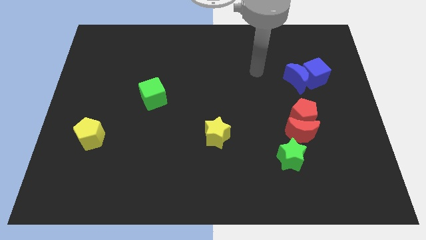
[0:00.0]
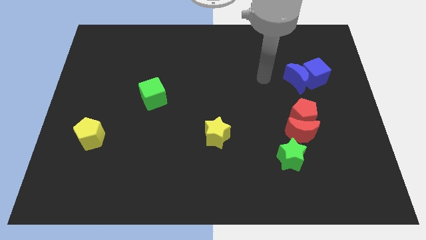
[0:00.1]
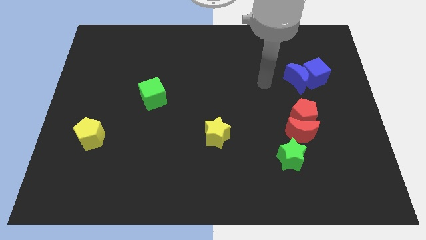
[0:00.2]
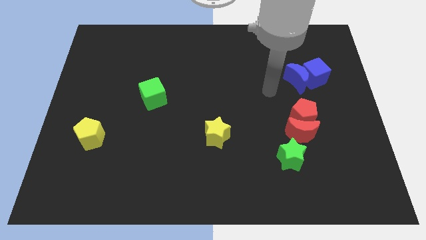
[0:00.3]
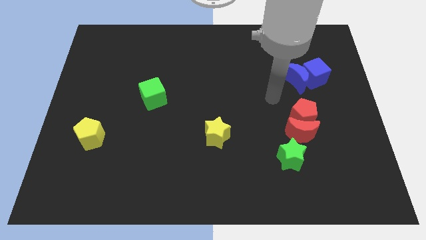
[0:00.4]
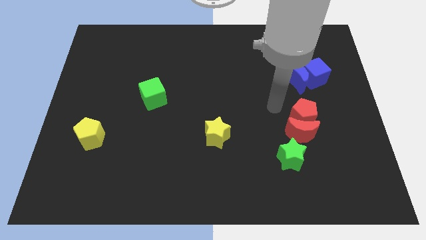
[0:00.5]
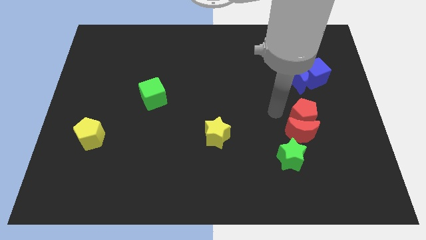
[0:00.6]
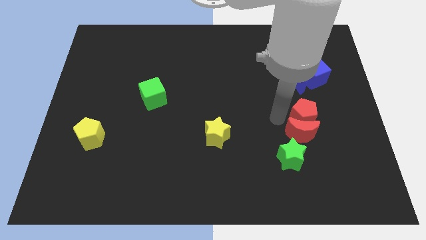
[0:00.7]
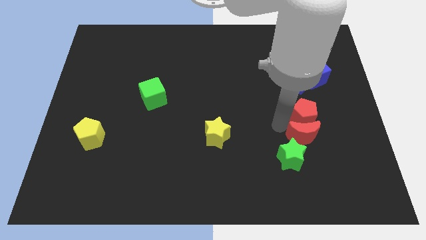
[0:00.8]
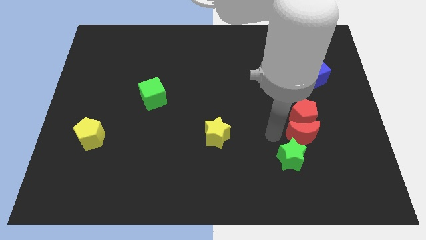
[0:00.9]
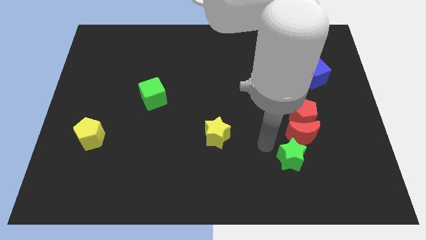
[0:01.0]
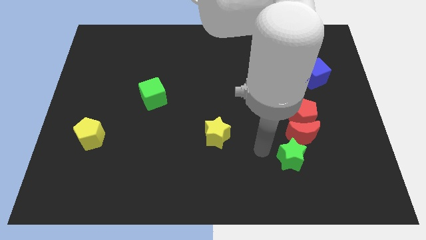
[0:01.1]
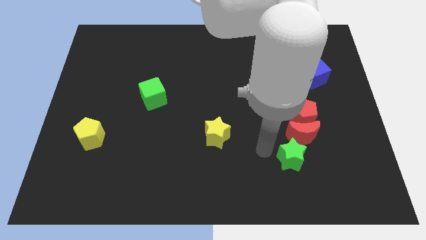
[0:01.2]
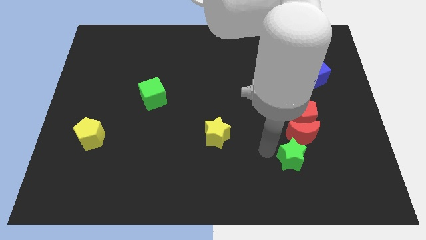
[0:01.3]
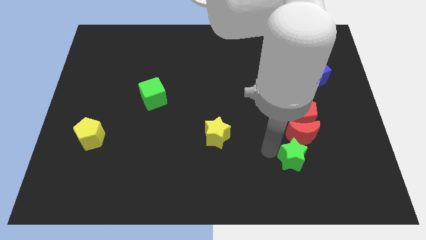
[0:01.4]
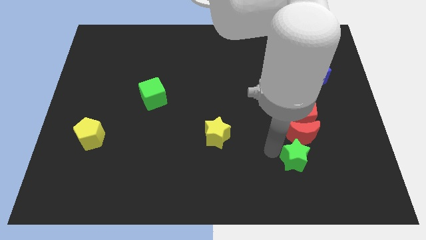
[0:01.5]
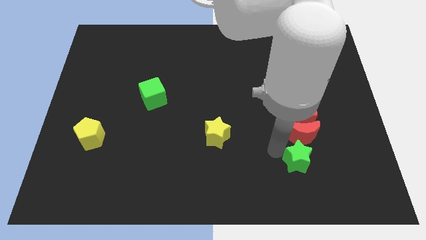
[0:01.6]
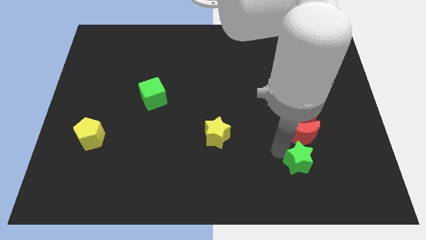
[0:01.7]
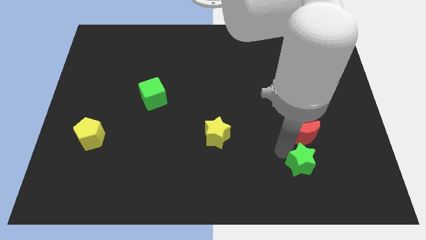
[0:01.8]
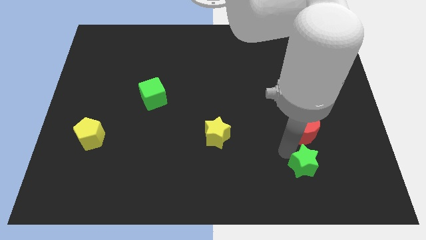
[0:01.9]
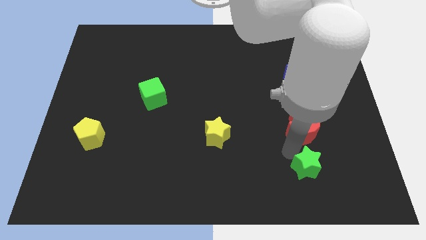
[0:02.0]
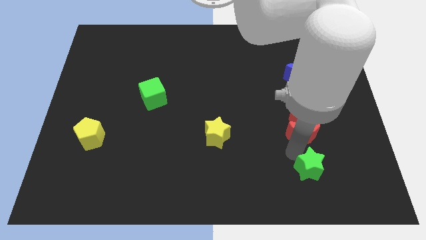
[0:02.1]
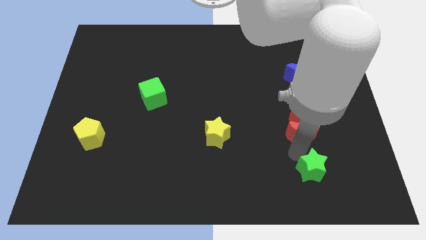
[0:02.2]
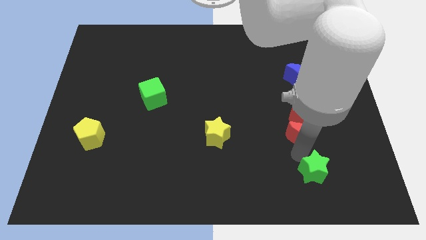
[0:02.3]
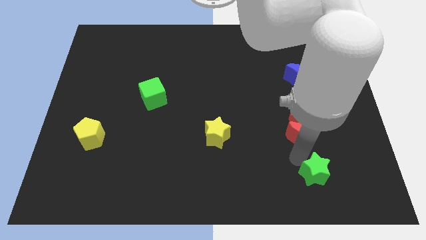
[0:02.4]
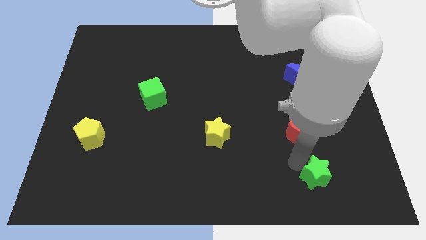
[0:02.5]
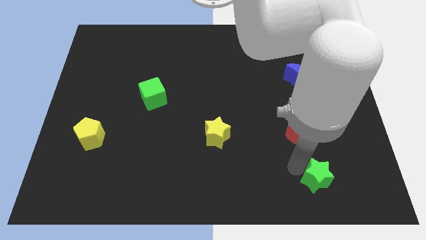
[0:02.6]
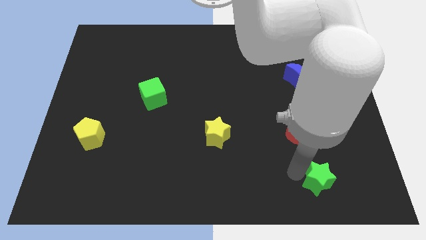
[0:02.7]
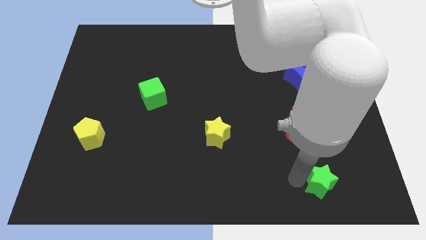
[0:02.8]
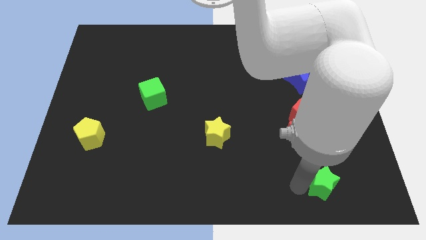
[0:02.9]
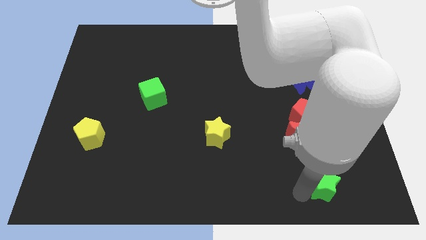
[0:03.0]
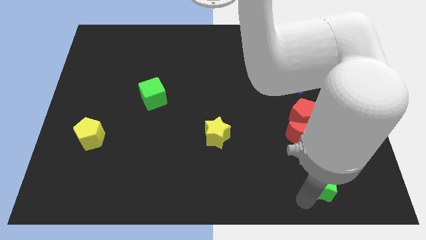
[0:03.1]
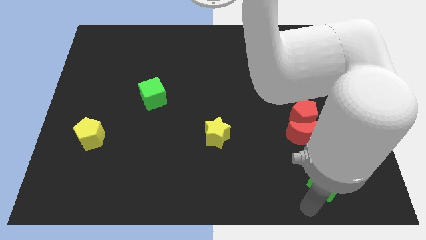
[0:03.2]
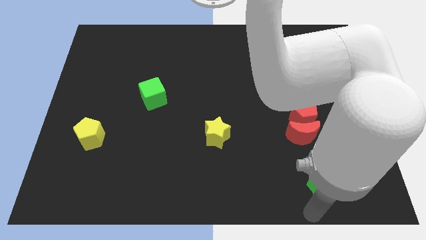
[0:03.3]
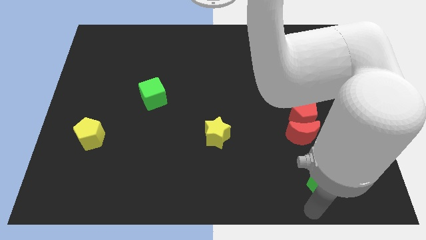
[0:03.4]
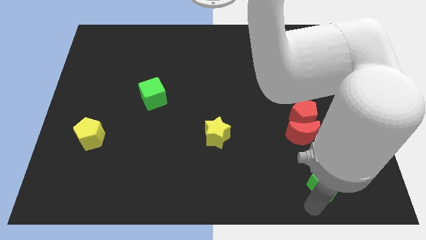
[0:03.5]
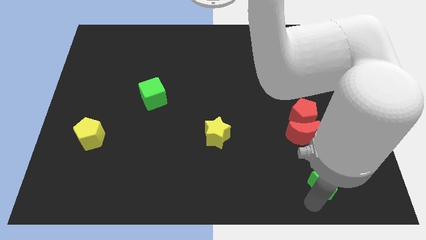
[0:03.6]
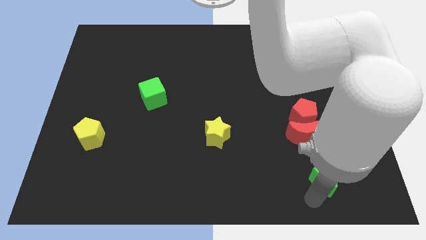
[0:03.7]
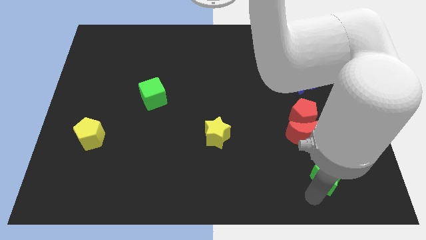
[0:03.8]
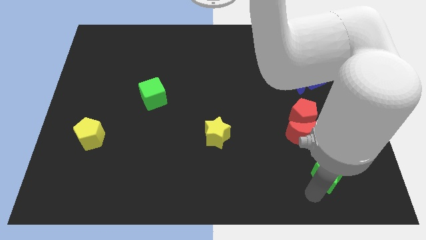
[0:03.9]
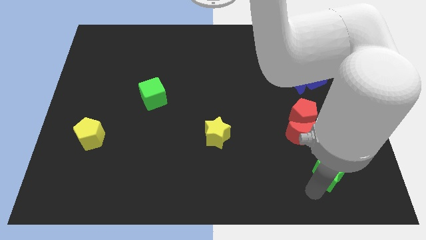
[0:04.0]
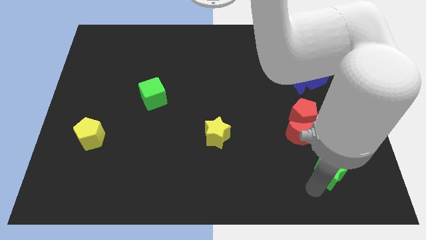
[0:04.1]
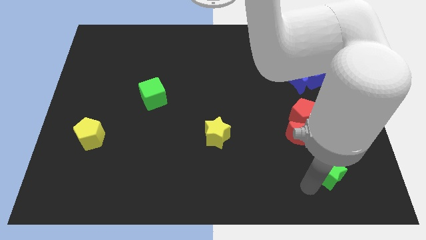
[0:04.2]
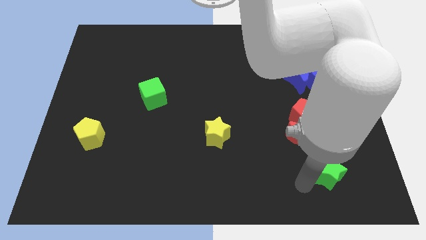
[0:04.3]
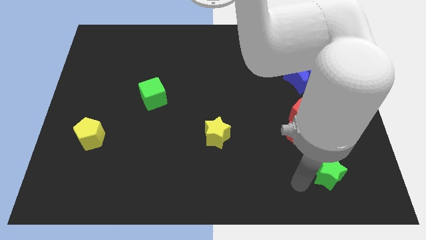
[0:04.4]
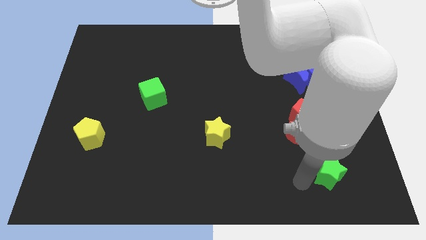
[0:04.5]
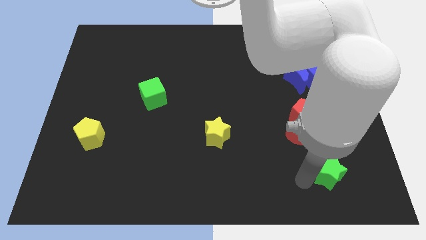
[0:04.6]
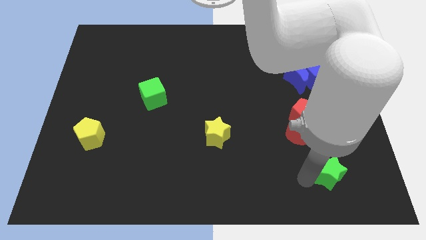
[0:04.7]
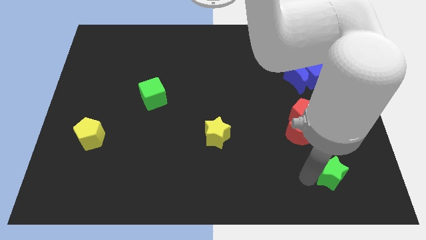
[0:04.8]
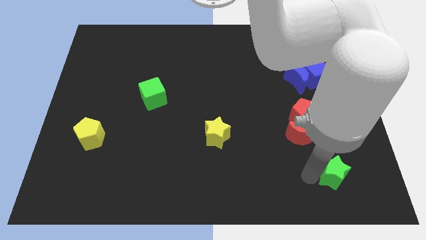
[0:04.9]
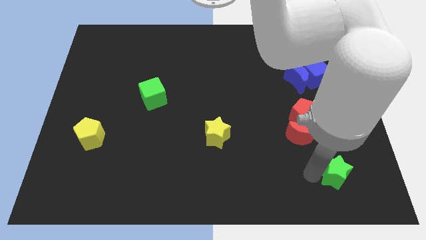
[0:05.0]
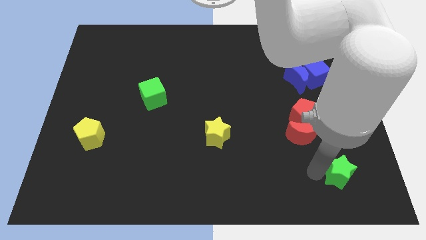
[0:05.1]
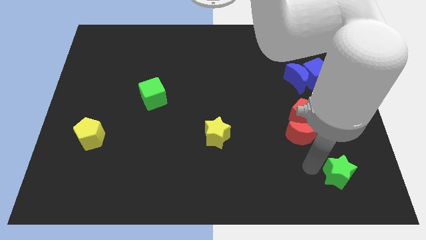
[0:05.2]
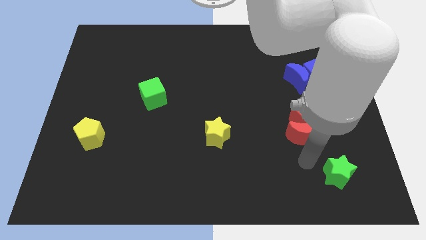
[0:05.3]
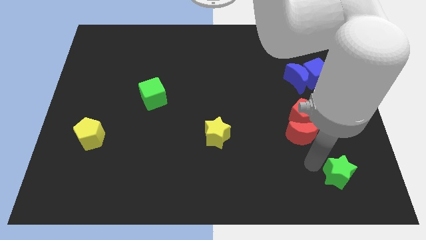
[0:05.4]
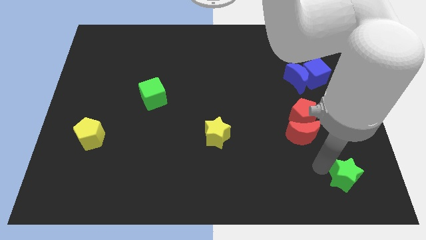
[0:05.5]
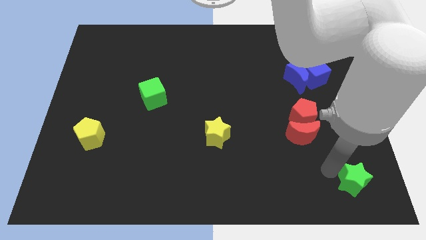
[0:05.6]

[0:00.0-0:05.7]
push the green star to the lower right corner
